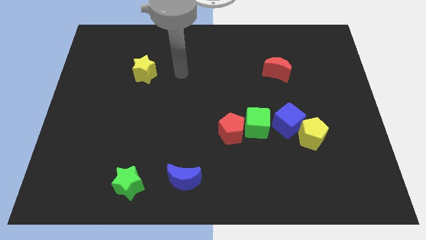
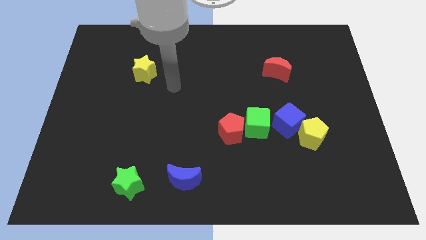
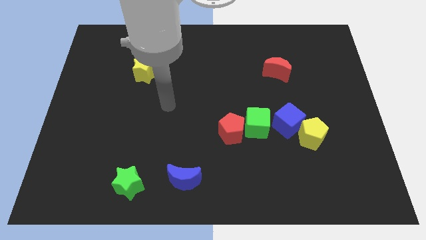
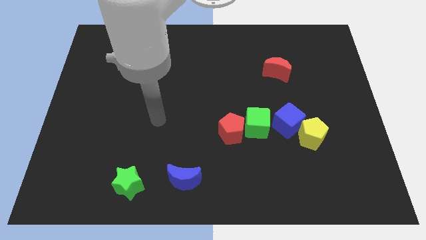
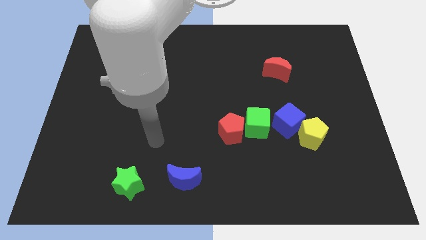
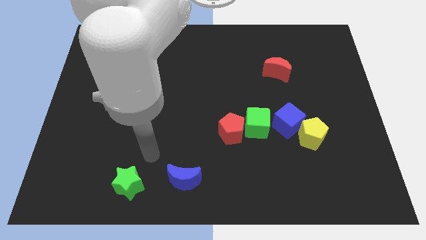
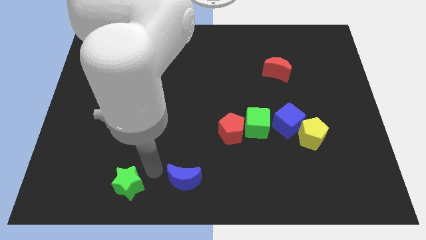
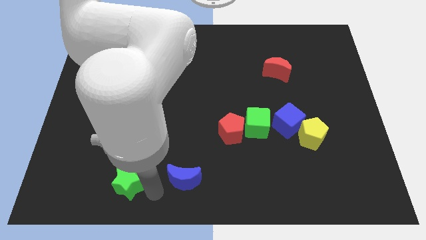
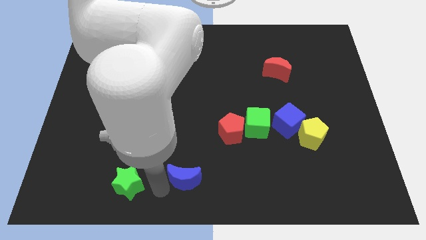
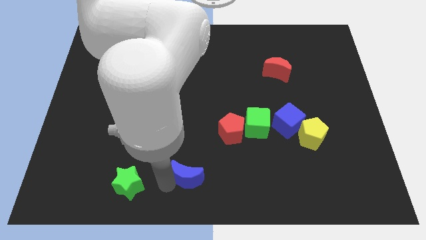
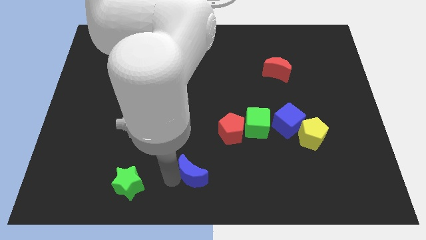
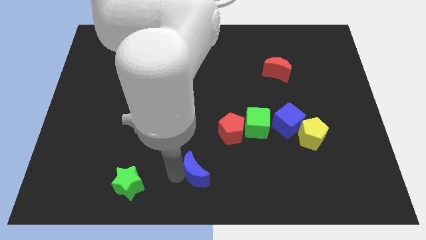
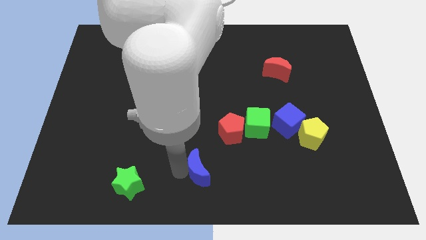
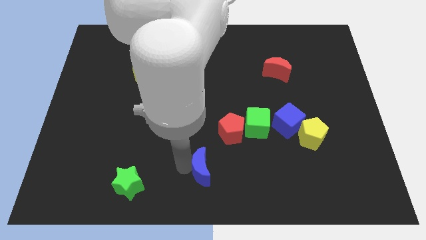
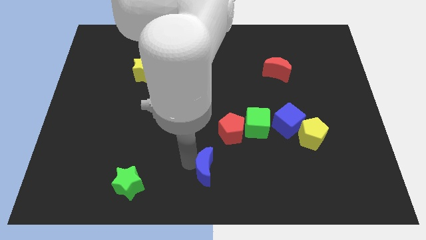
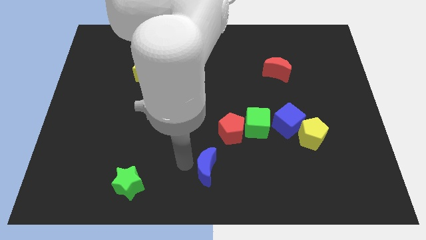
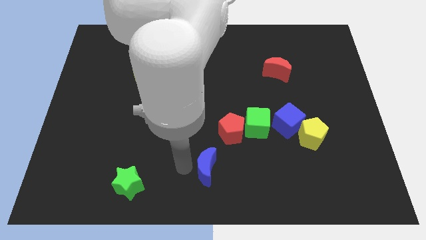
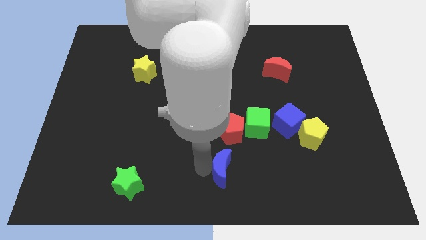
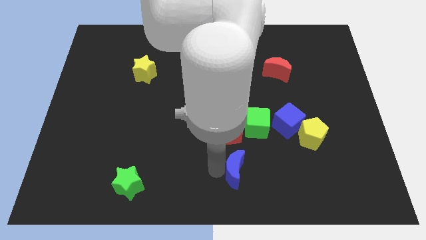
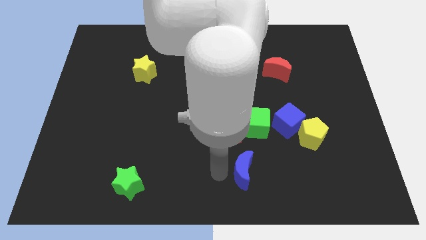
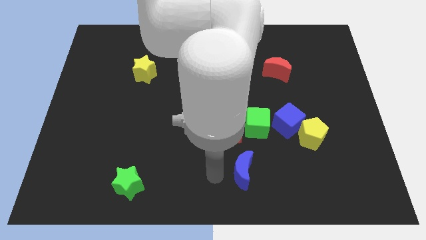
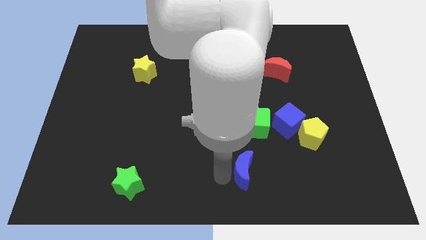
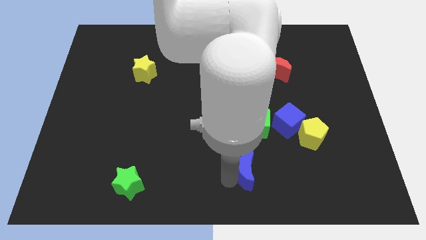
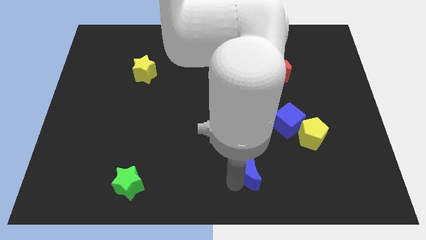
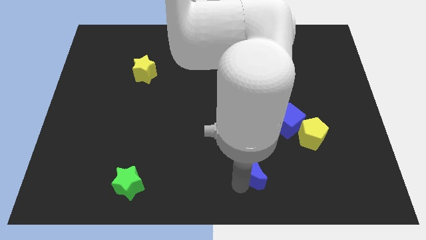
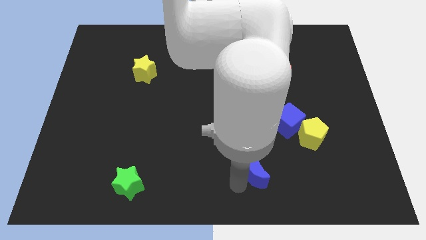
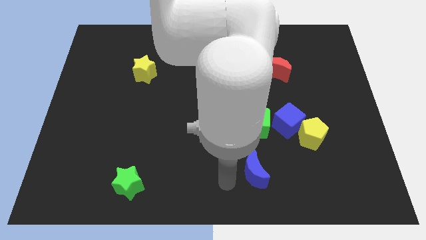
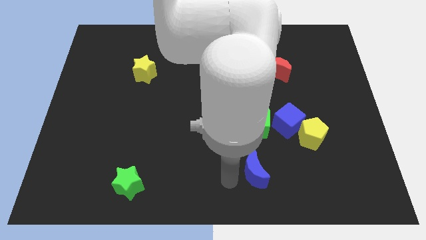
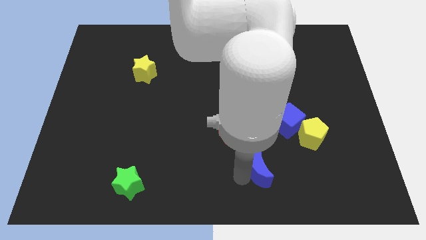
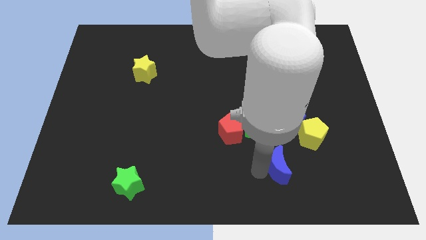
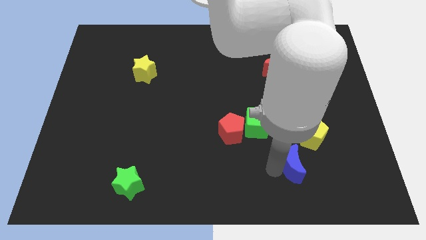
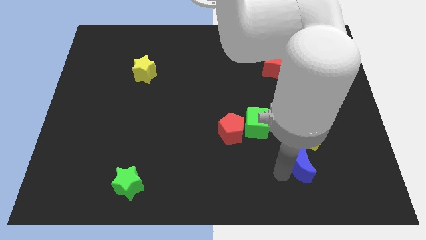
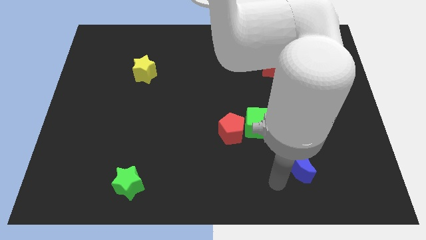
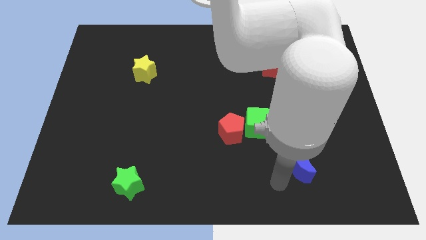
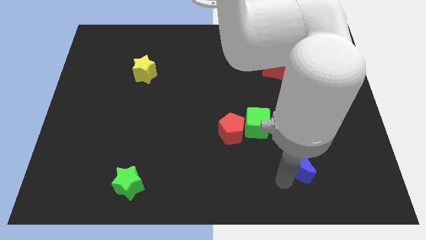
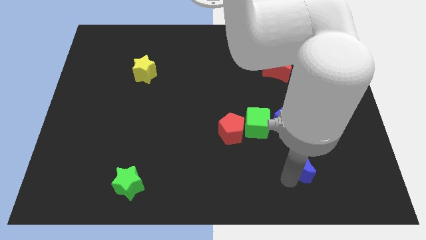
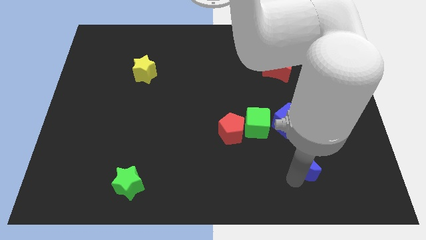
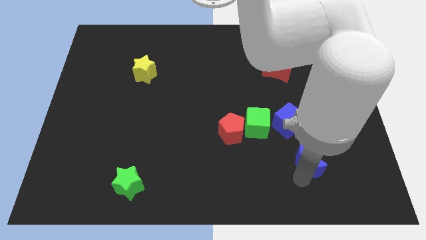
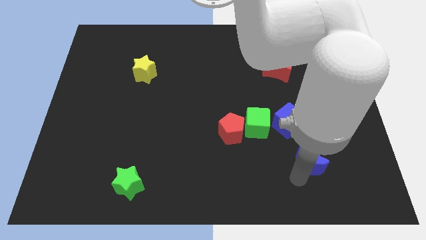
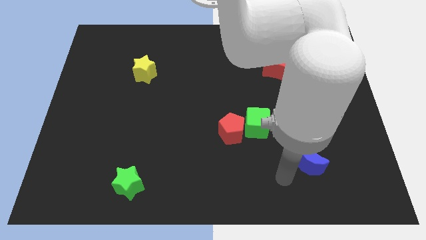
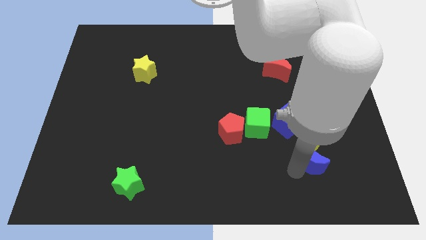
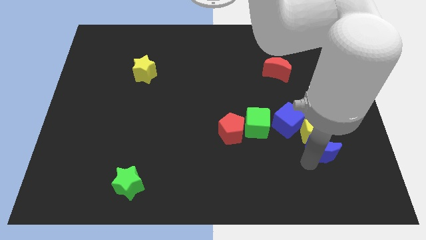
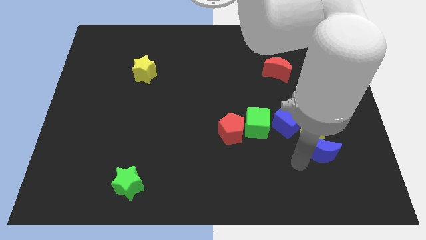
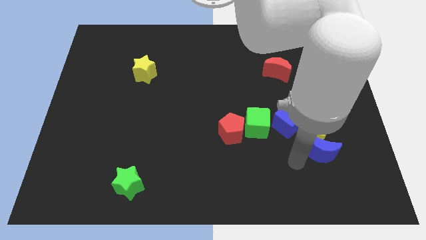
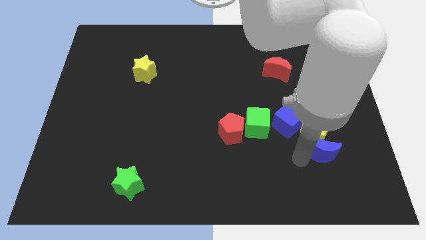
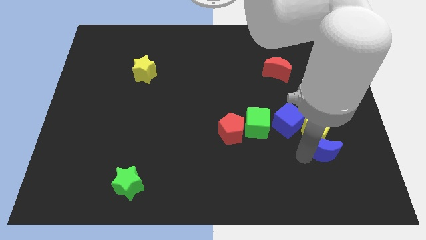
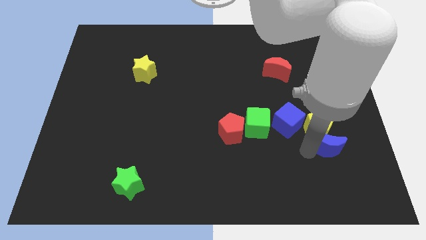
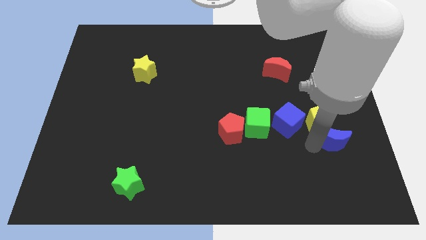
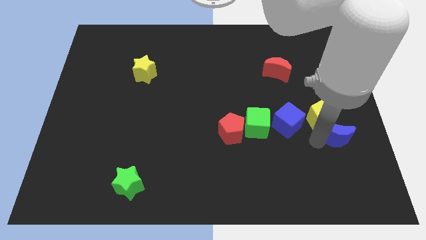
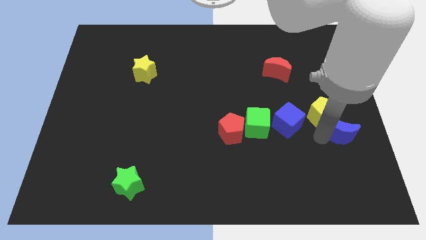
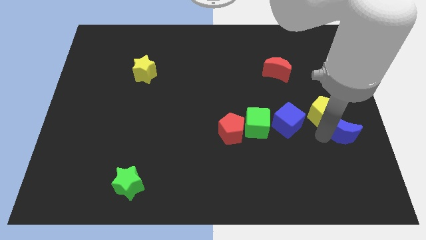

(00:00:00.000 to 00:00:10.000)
slide the blue moon to the right side of the board

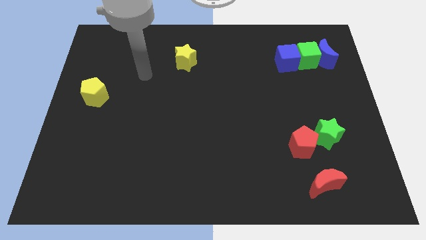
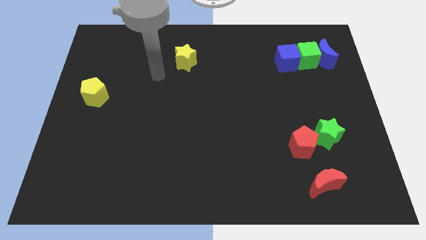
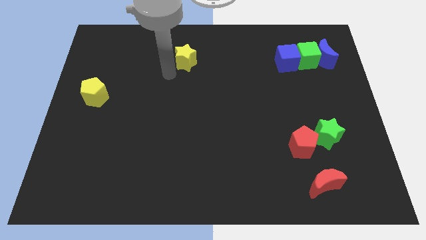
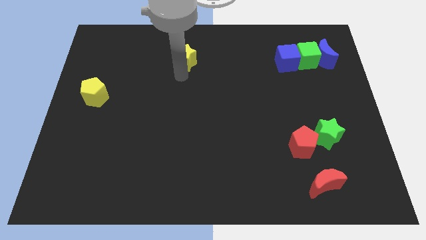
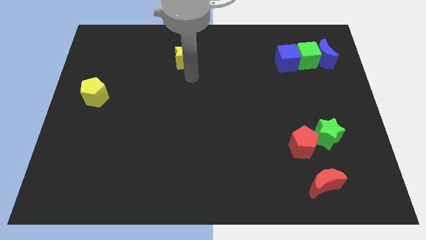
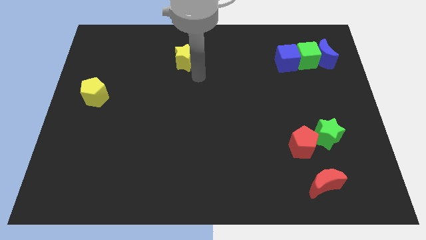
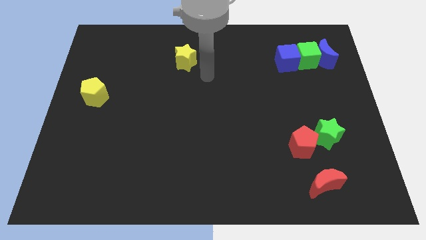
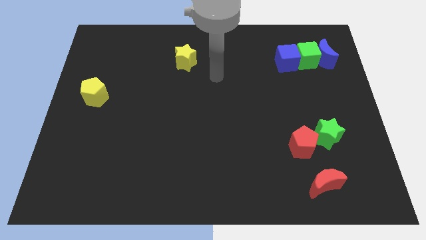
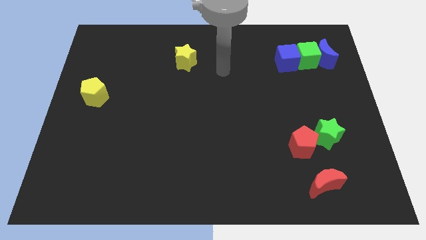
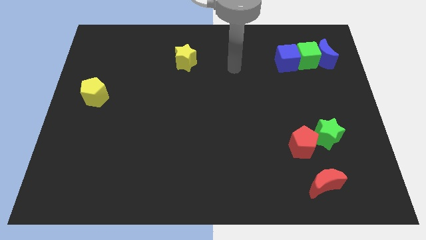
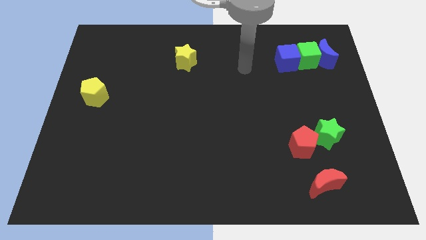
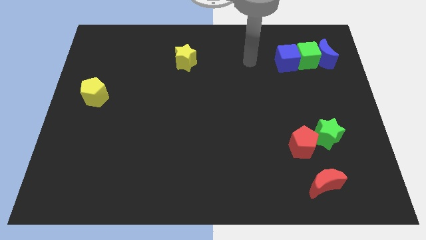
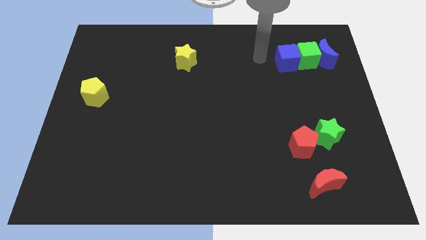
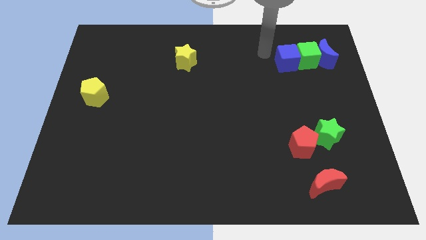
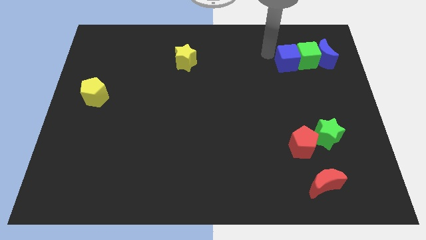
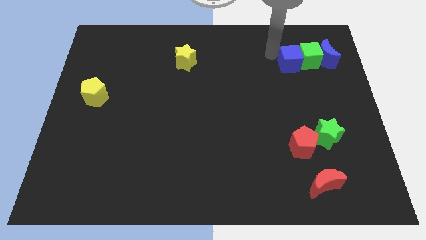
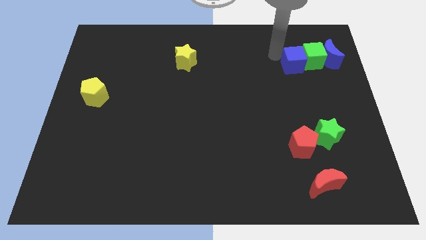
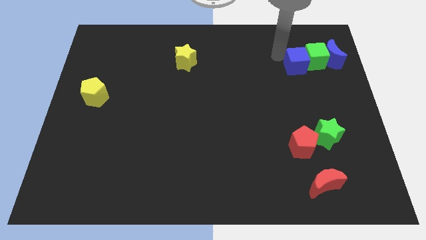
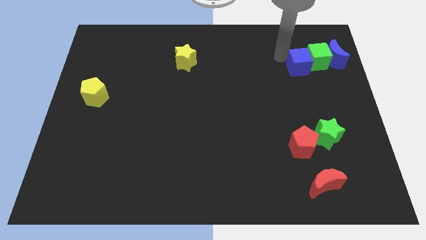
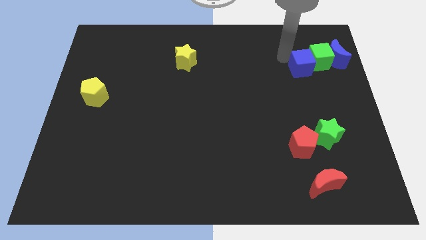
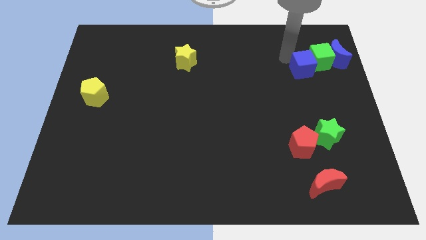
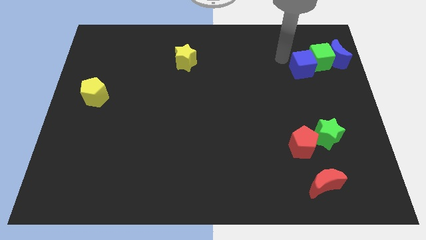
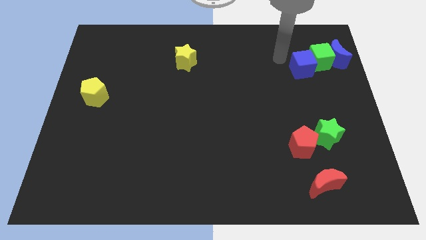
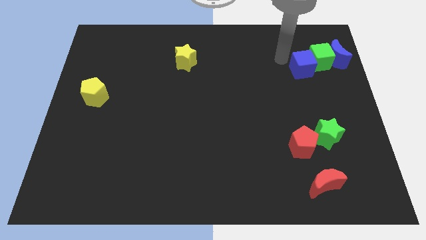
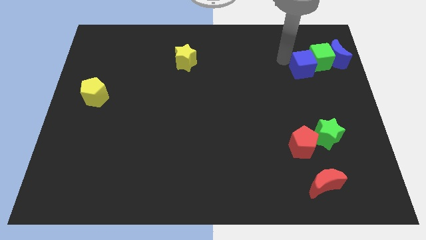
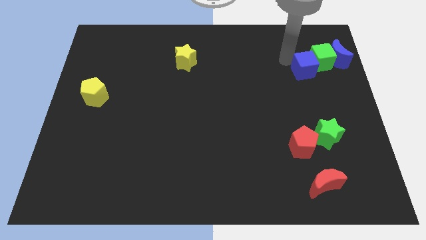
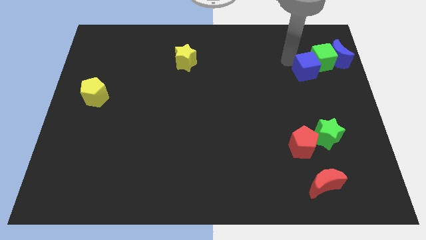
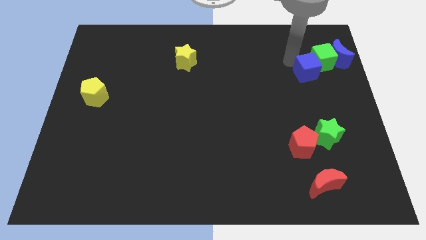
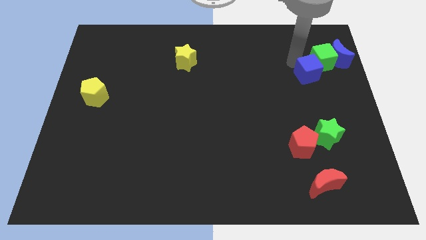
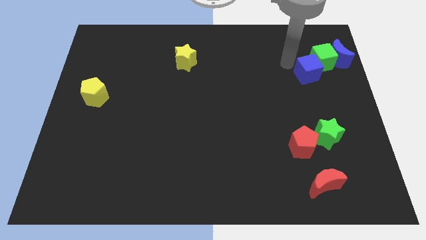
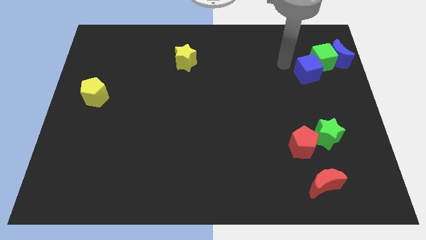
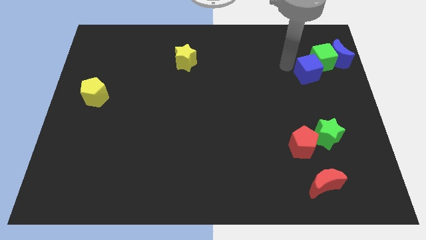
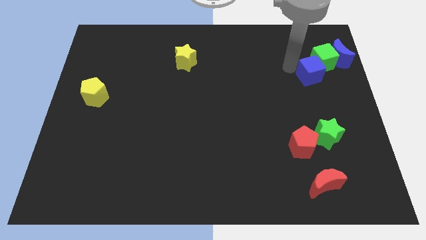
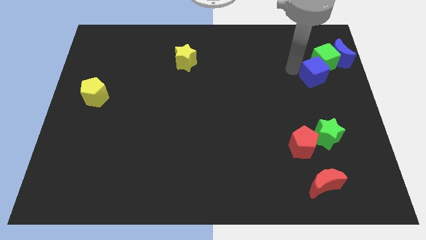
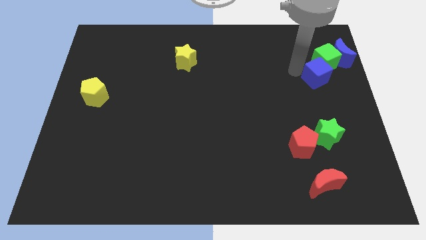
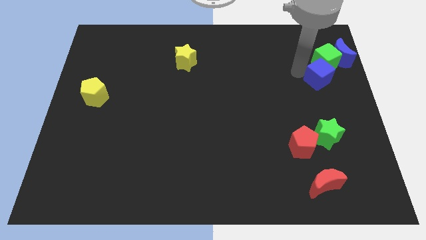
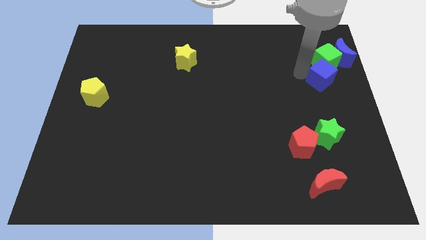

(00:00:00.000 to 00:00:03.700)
put the blue cube to the center right
